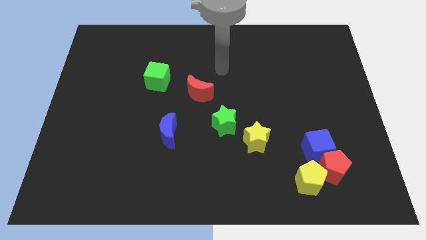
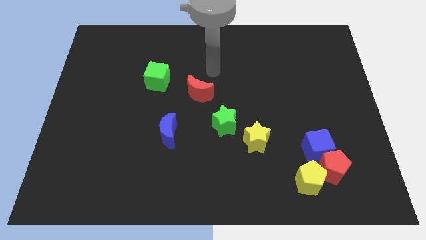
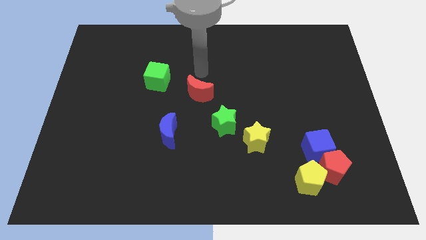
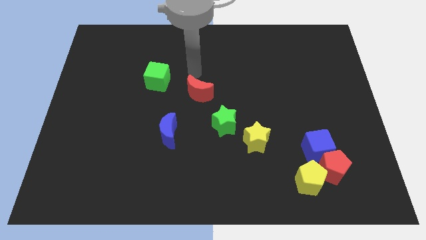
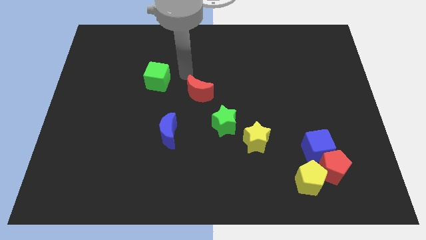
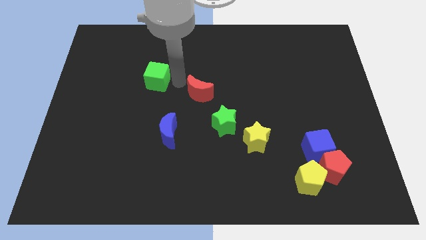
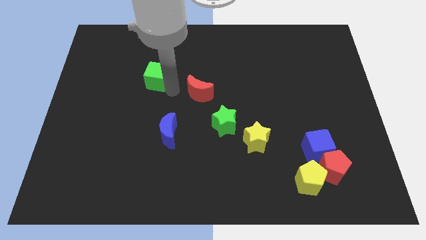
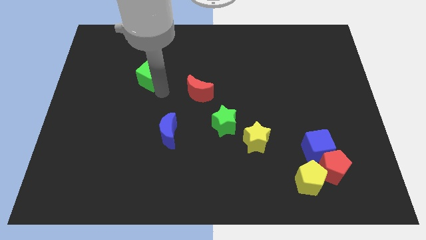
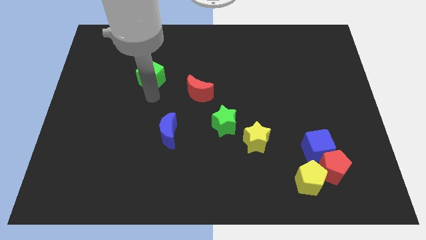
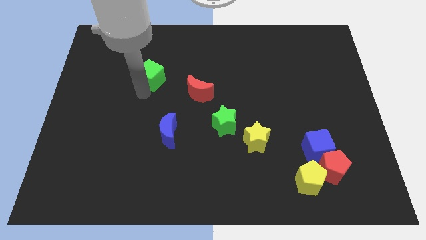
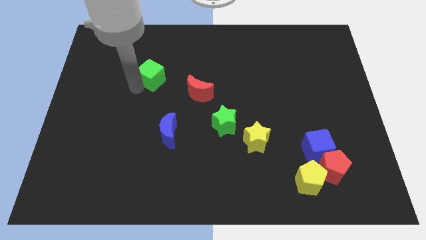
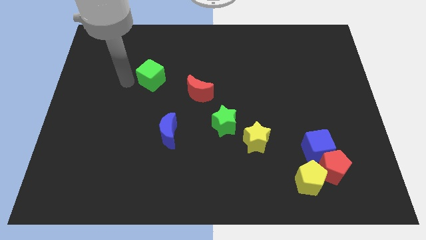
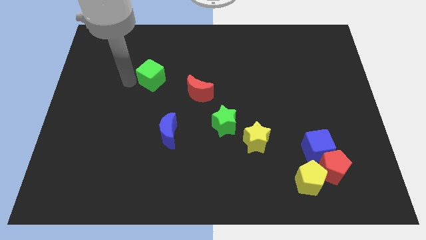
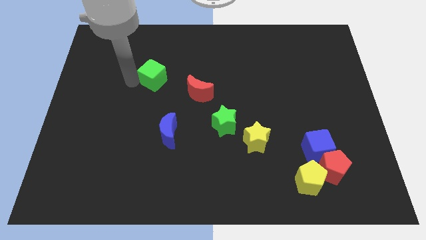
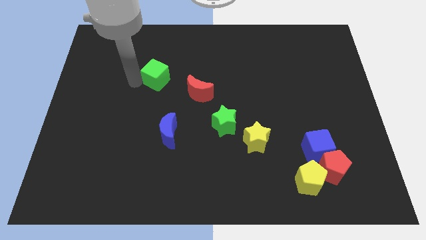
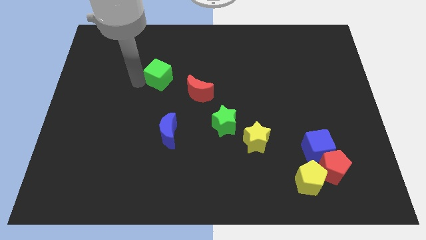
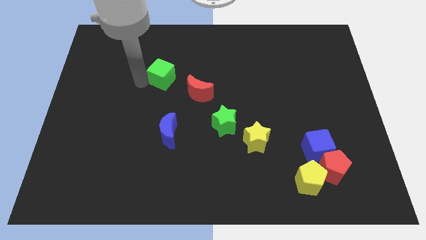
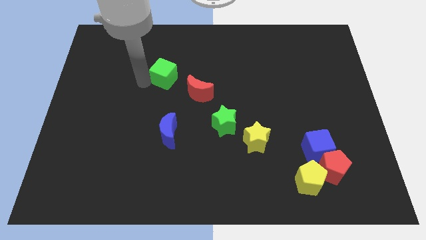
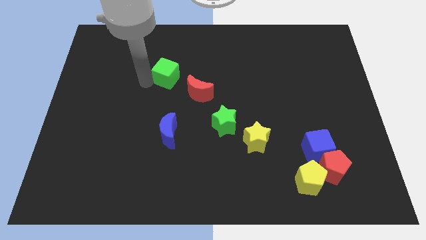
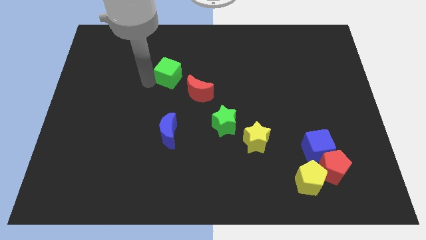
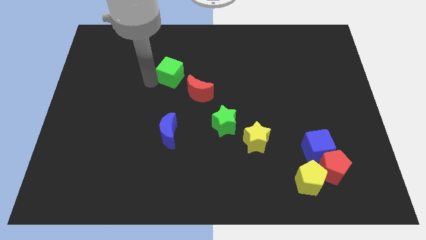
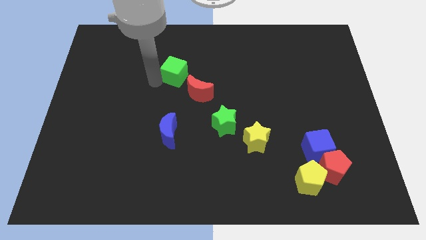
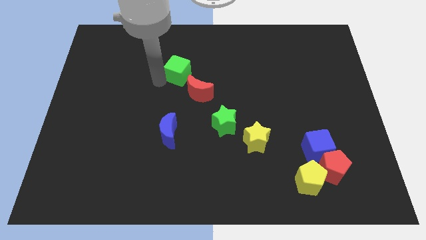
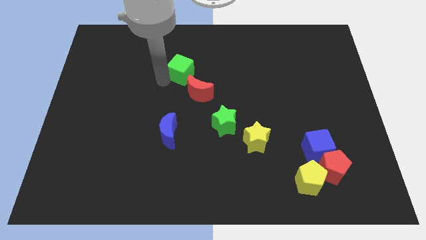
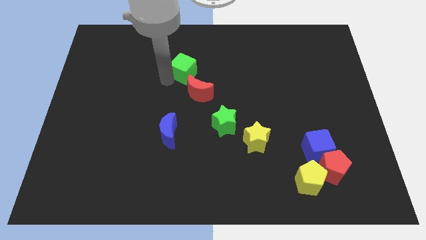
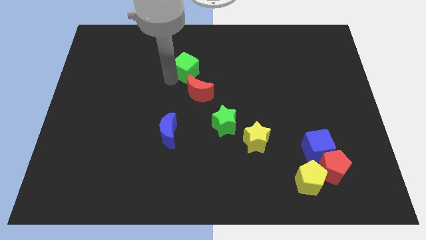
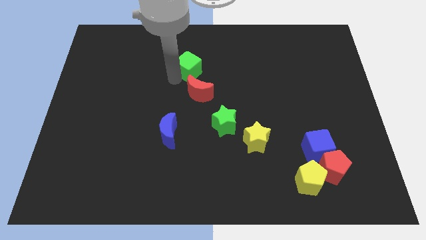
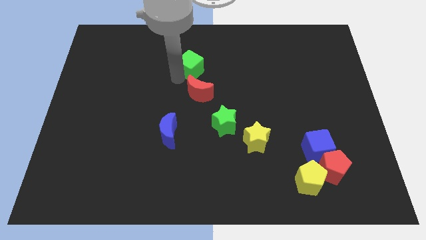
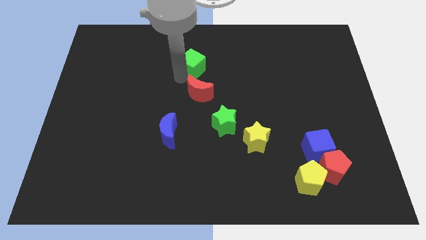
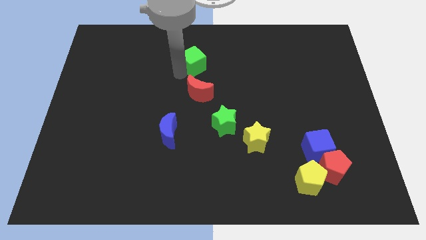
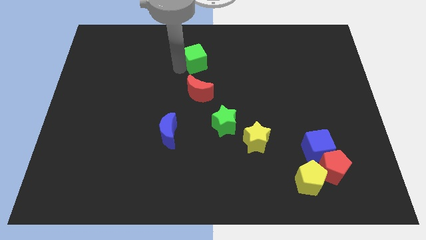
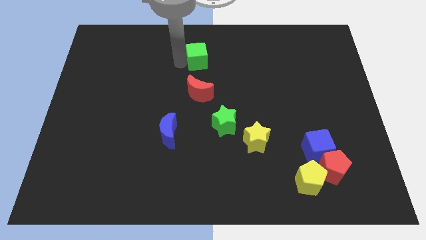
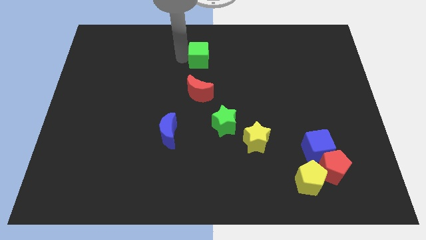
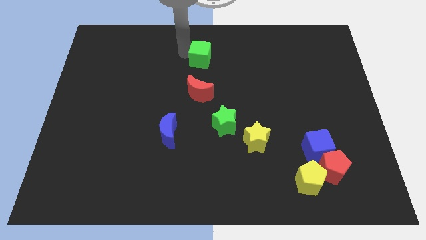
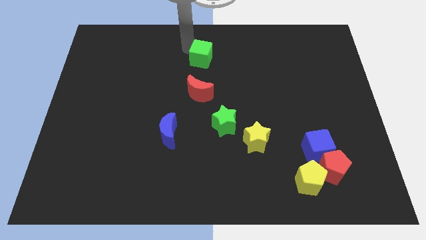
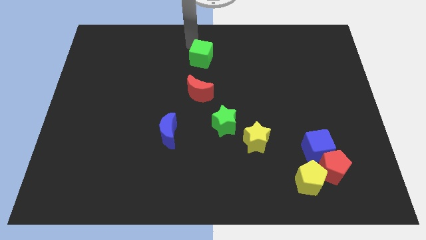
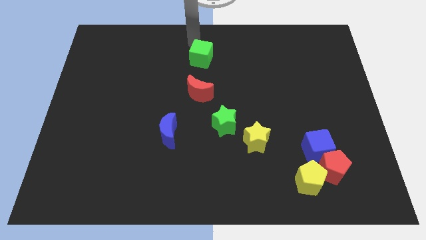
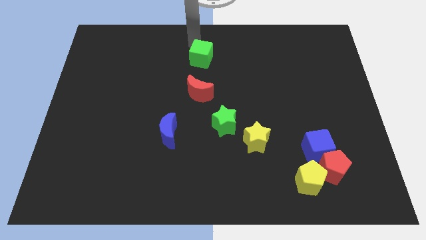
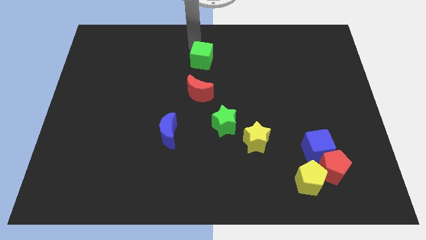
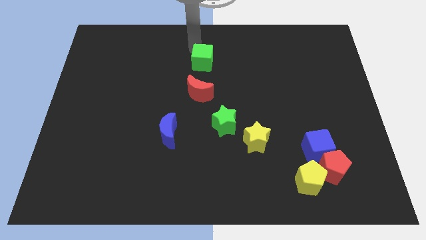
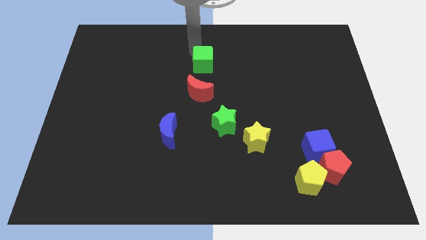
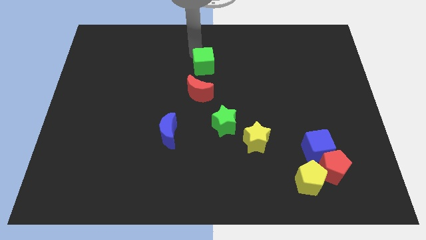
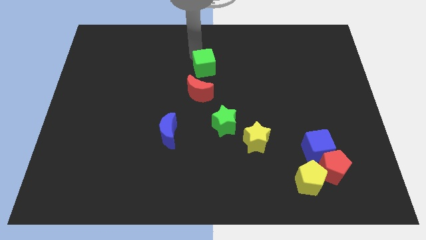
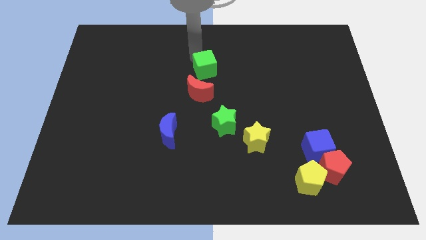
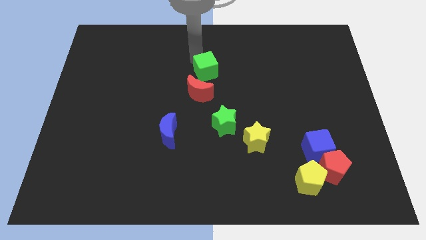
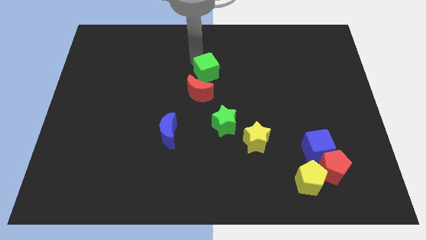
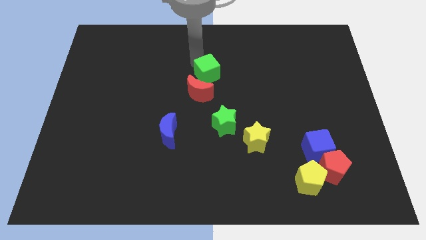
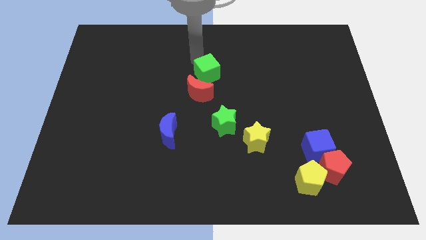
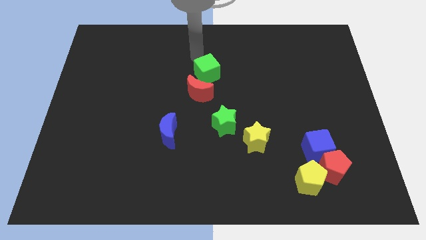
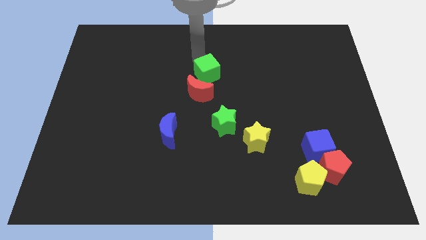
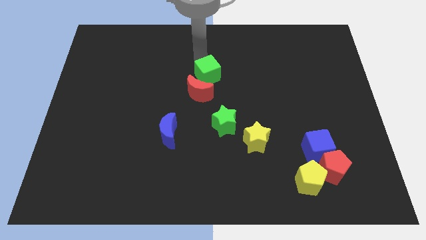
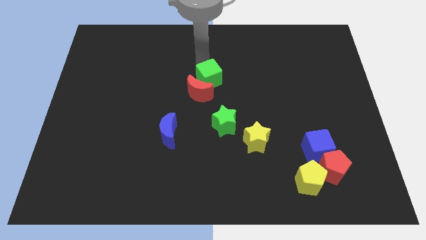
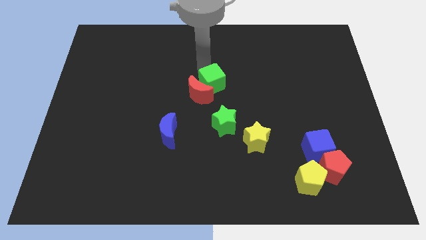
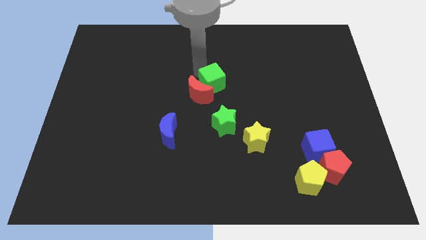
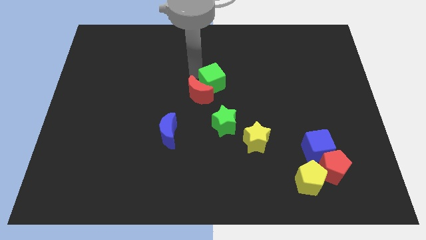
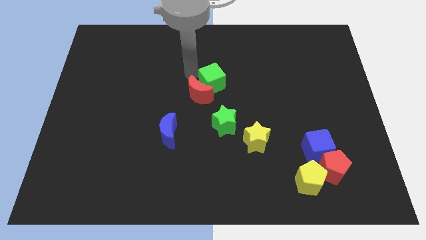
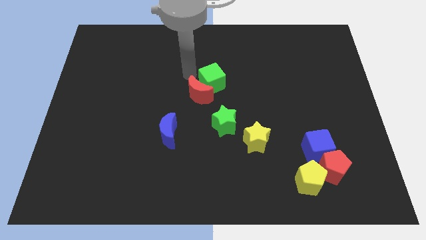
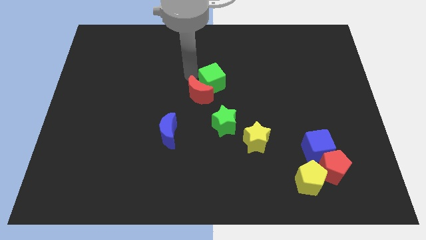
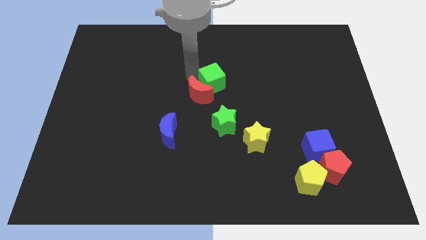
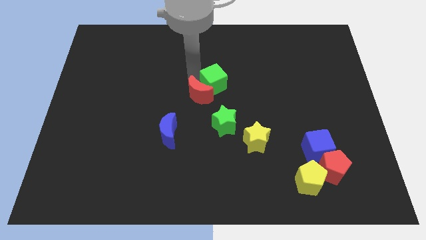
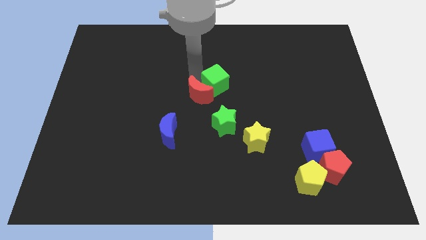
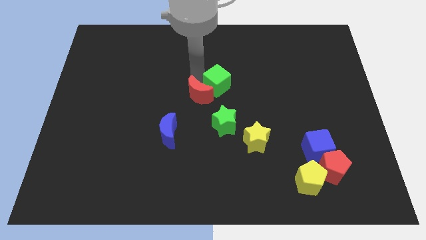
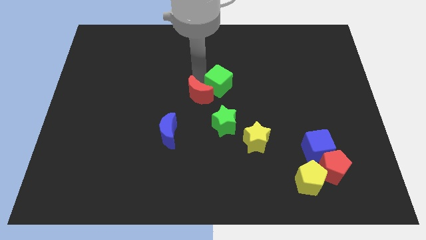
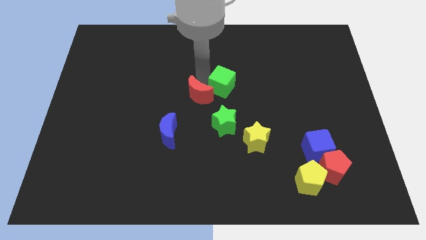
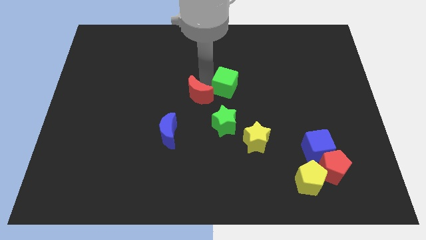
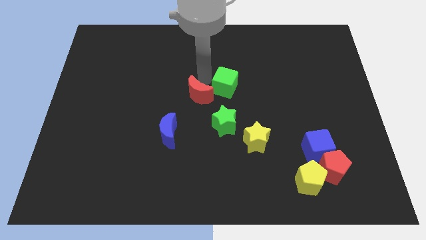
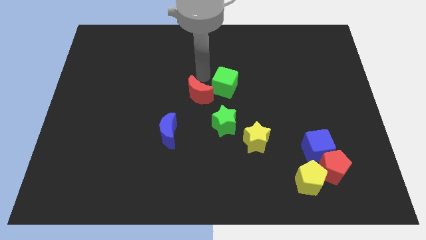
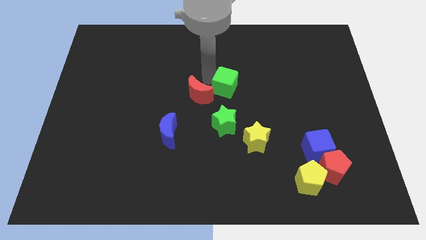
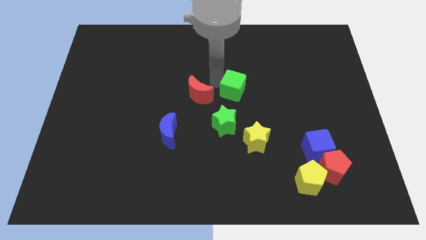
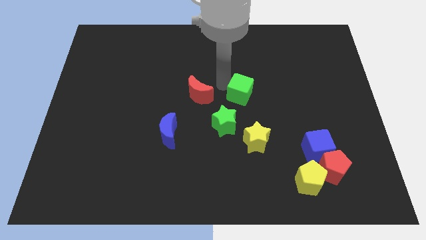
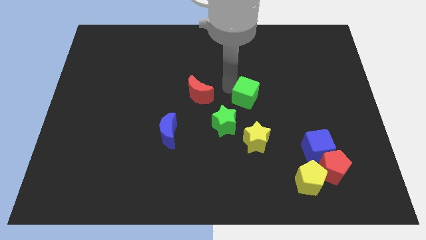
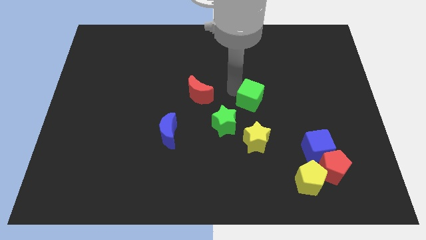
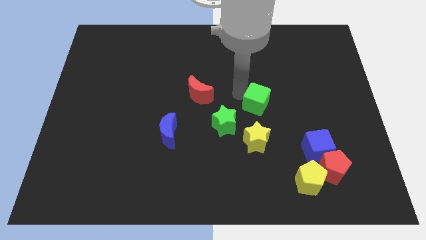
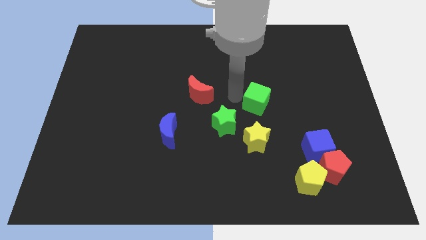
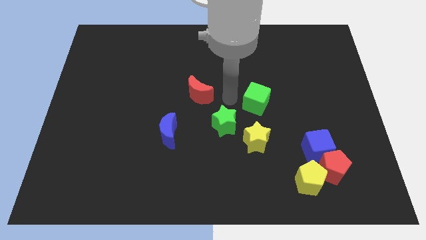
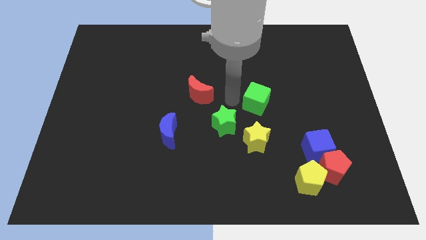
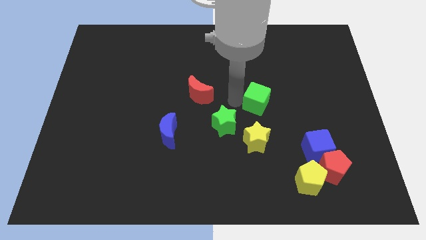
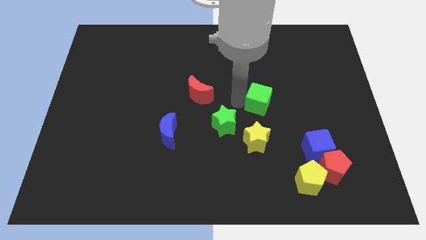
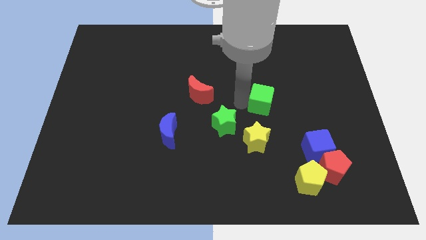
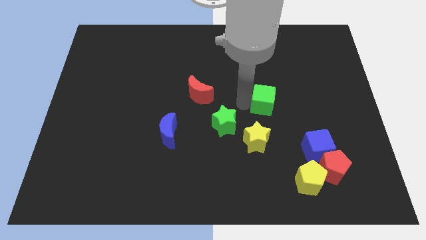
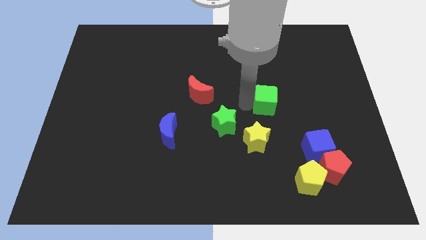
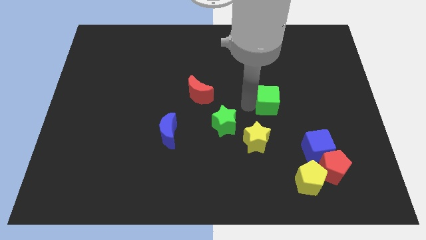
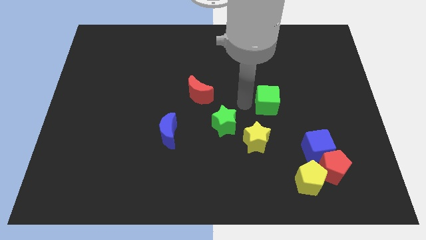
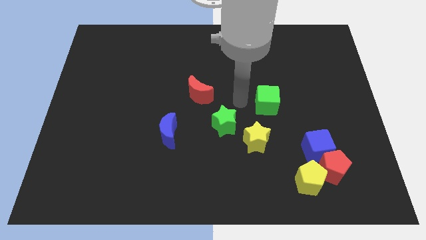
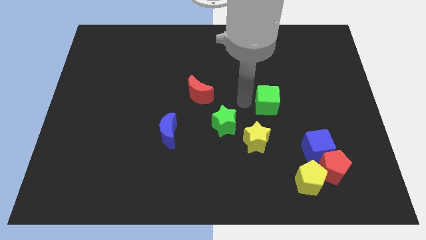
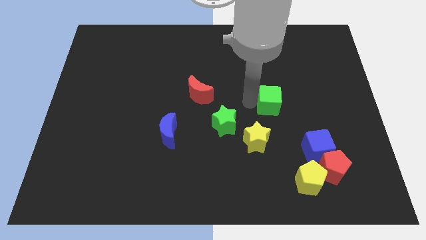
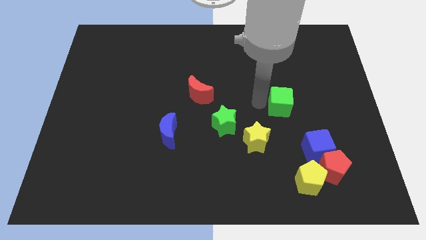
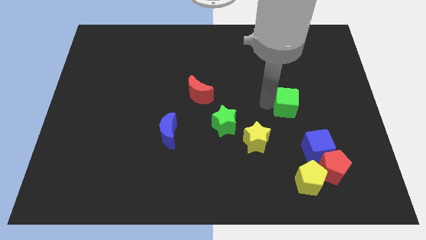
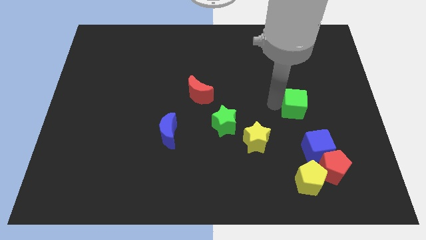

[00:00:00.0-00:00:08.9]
push the green cube above the blue cube
